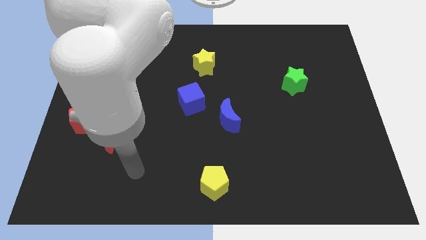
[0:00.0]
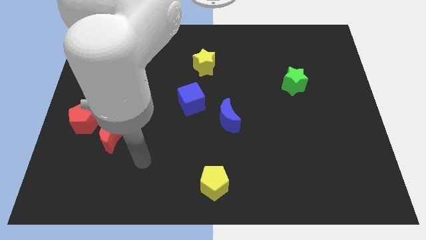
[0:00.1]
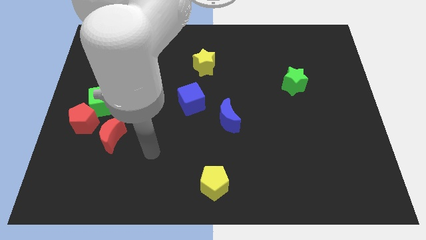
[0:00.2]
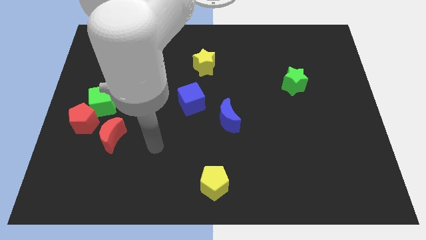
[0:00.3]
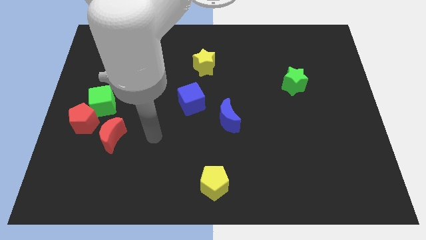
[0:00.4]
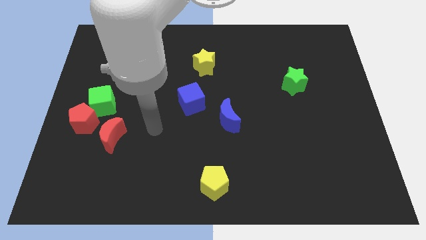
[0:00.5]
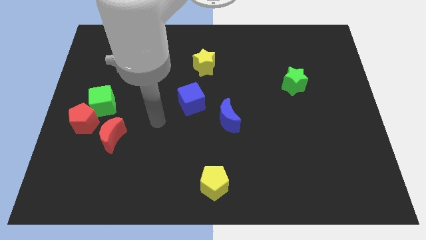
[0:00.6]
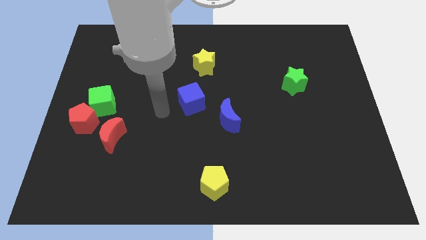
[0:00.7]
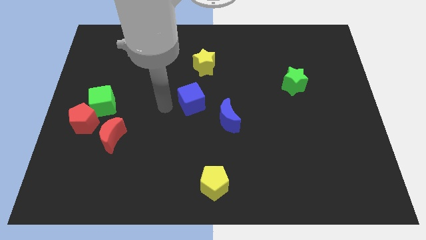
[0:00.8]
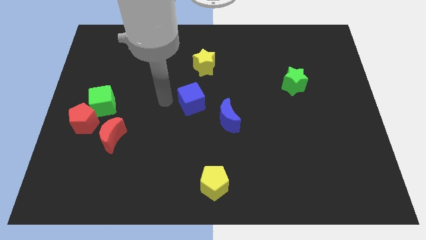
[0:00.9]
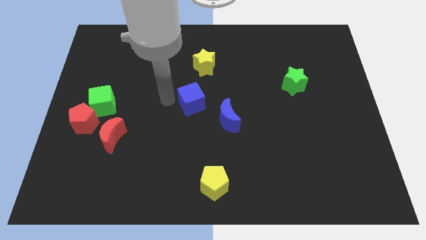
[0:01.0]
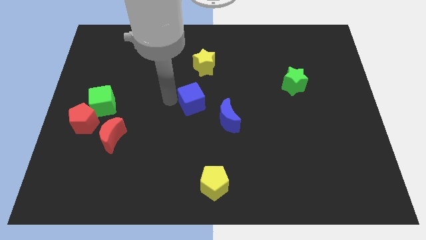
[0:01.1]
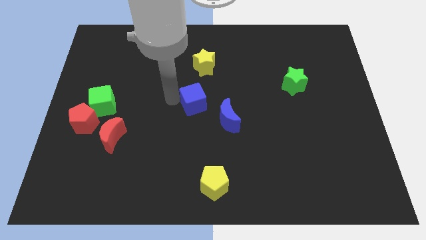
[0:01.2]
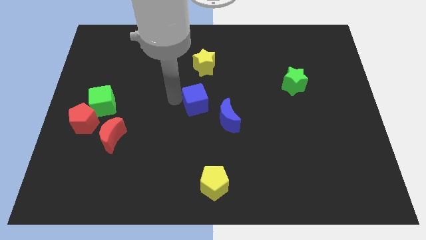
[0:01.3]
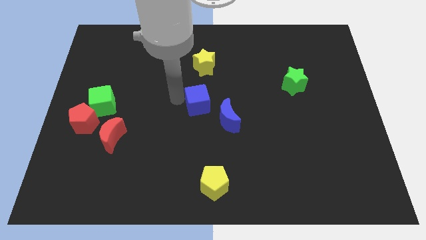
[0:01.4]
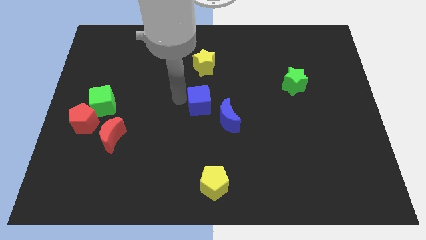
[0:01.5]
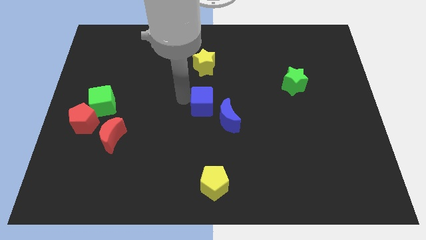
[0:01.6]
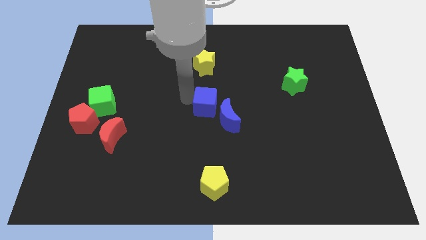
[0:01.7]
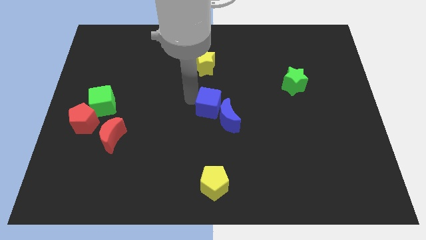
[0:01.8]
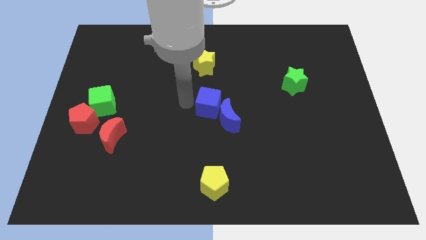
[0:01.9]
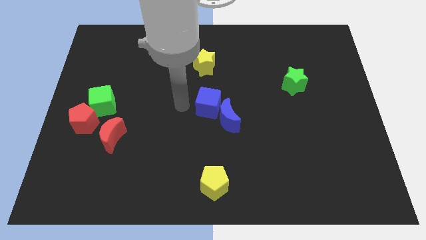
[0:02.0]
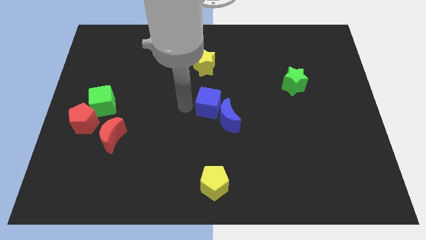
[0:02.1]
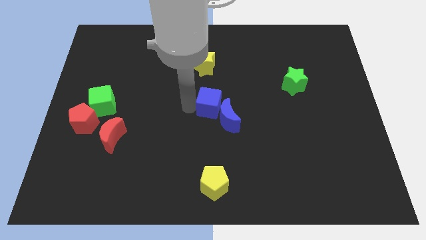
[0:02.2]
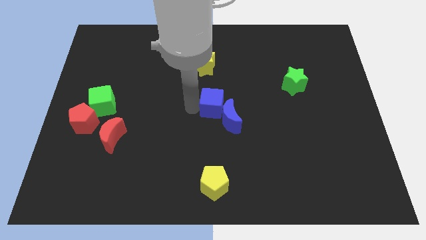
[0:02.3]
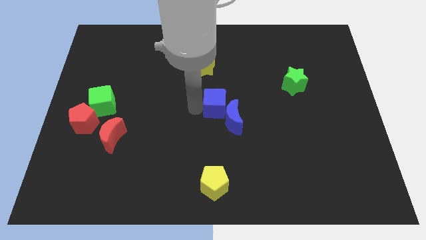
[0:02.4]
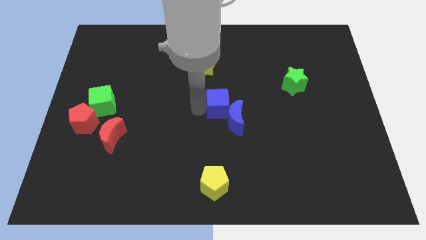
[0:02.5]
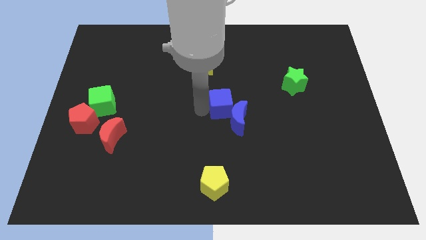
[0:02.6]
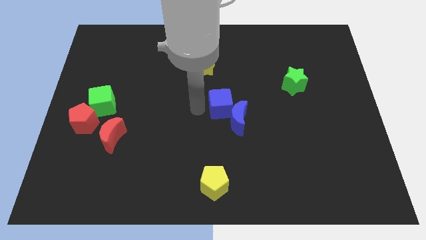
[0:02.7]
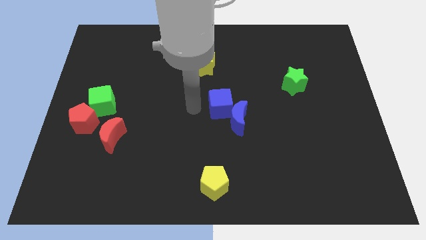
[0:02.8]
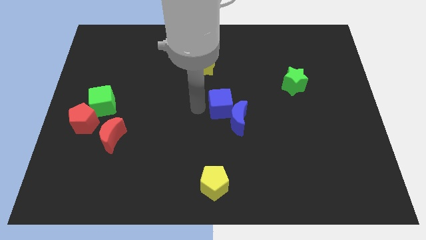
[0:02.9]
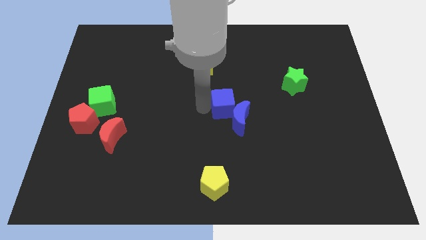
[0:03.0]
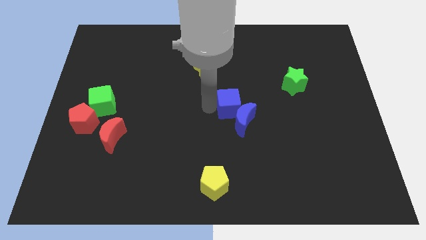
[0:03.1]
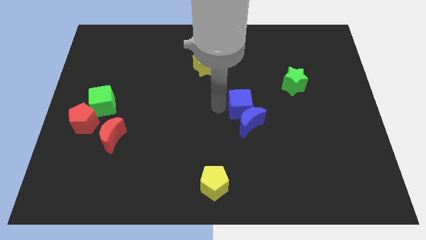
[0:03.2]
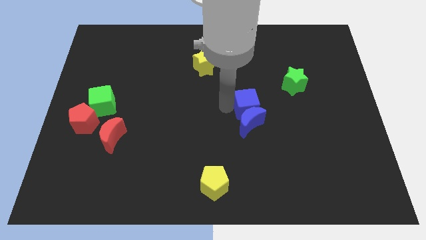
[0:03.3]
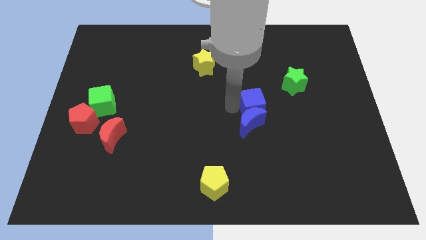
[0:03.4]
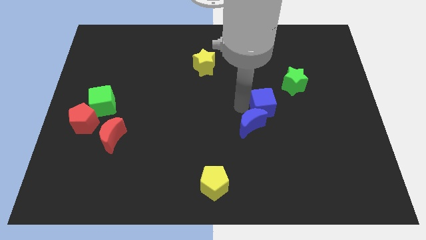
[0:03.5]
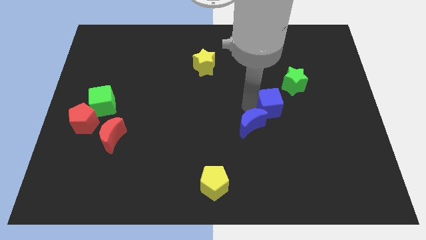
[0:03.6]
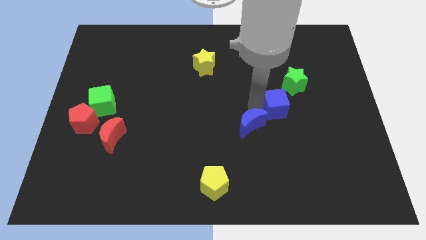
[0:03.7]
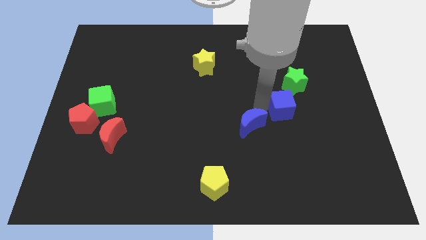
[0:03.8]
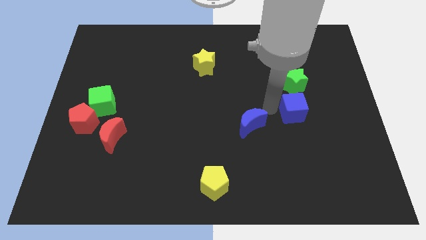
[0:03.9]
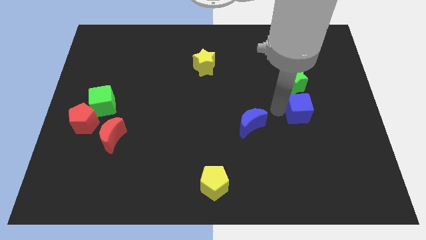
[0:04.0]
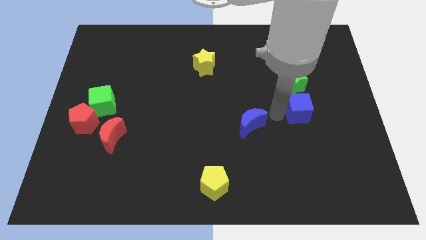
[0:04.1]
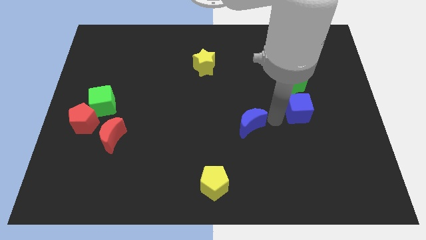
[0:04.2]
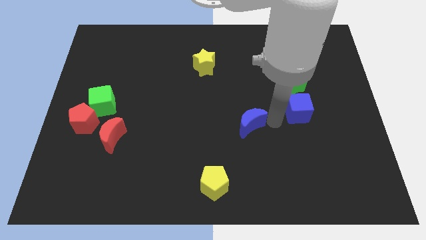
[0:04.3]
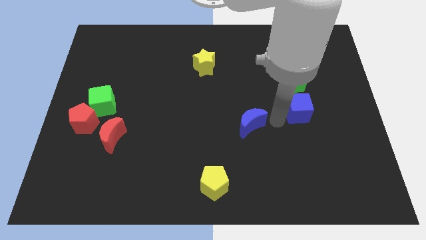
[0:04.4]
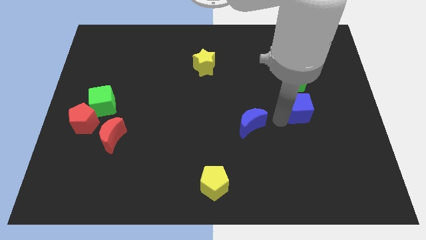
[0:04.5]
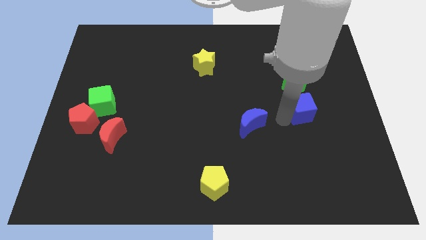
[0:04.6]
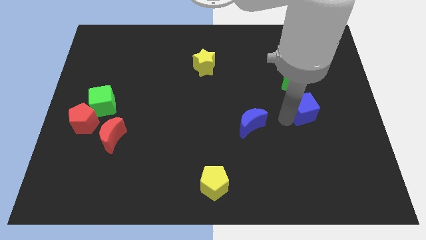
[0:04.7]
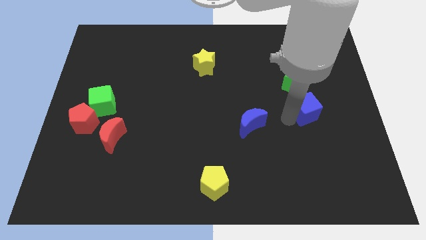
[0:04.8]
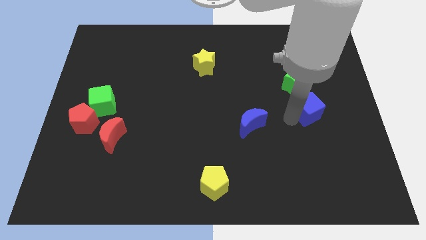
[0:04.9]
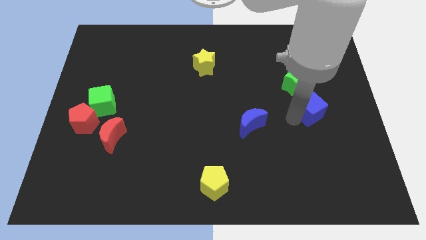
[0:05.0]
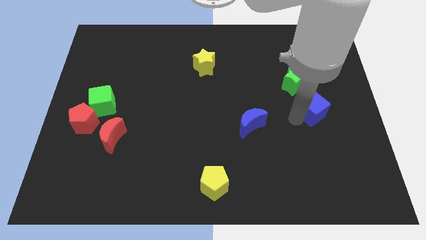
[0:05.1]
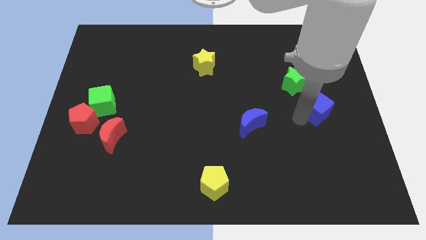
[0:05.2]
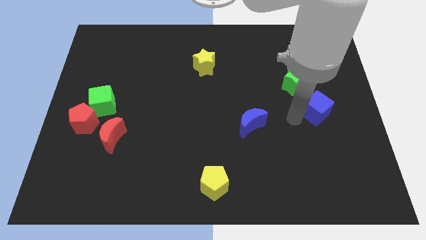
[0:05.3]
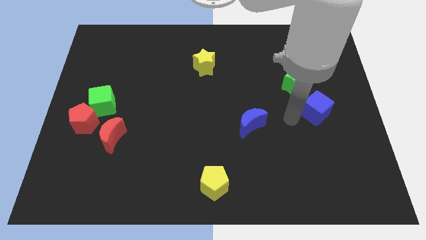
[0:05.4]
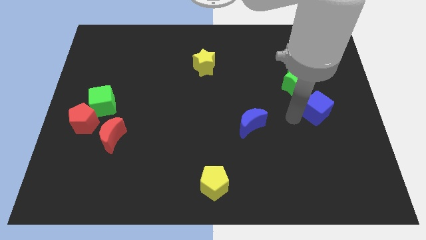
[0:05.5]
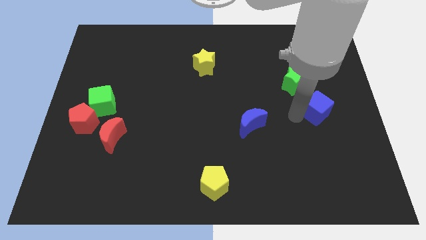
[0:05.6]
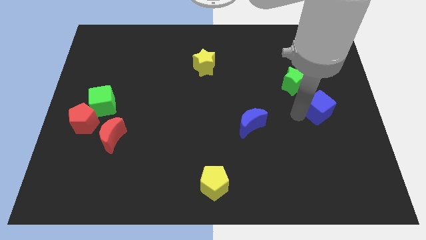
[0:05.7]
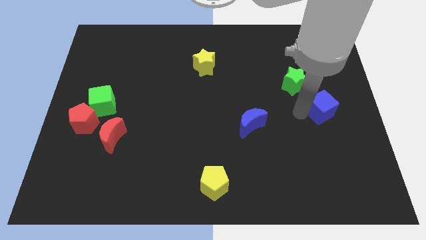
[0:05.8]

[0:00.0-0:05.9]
push the blue cube to the center right

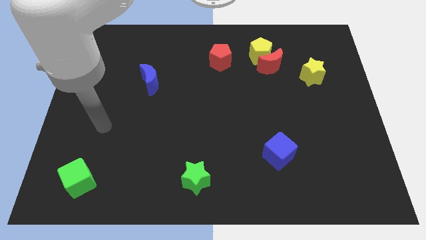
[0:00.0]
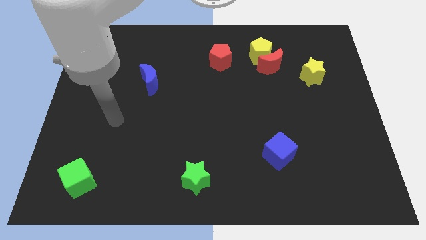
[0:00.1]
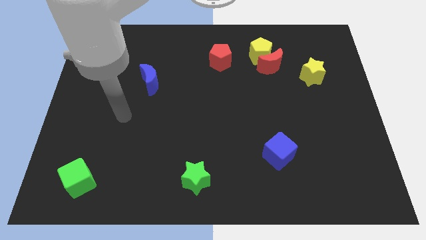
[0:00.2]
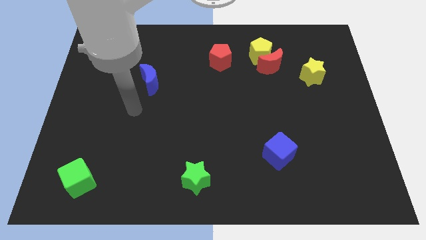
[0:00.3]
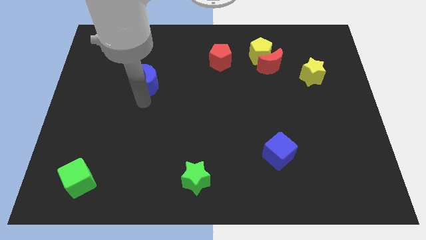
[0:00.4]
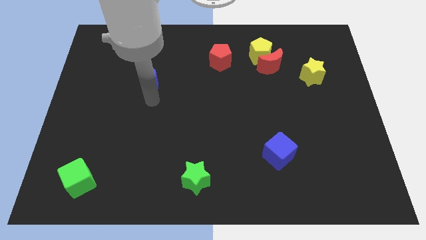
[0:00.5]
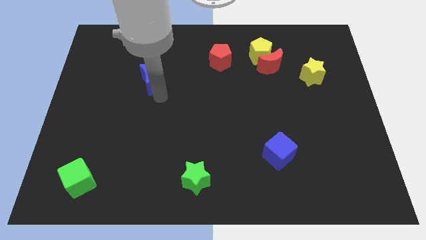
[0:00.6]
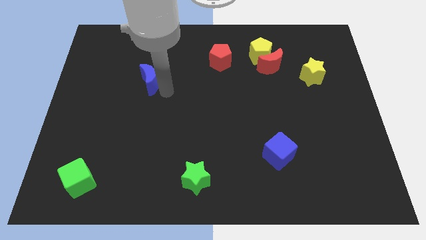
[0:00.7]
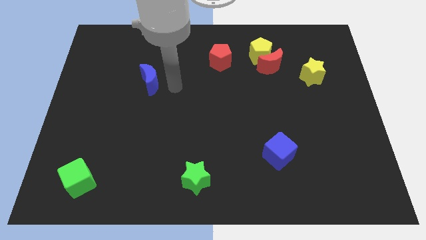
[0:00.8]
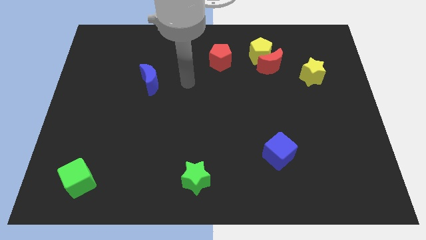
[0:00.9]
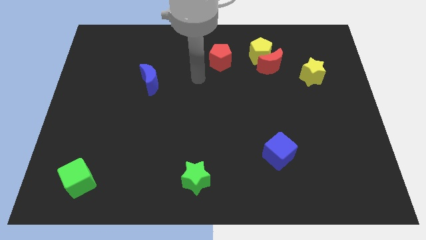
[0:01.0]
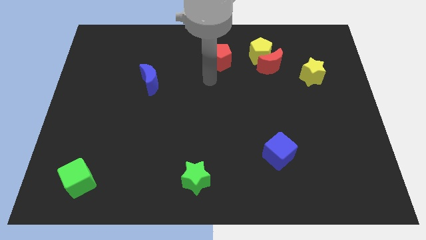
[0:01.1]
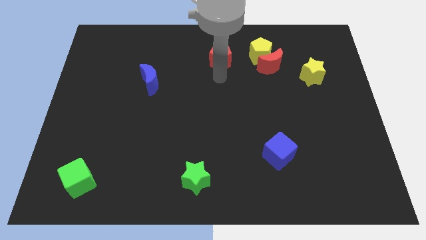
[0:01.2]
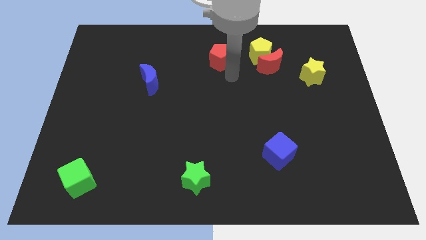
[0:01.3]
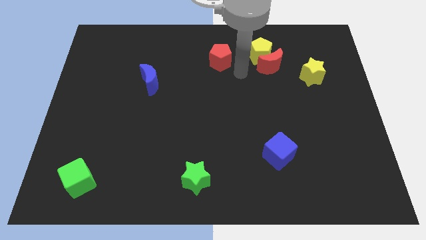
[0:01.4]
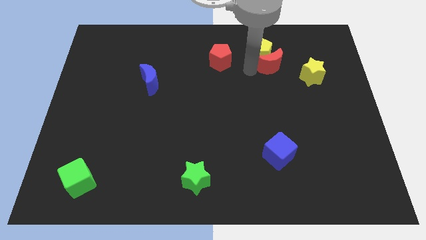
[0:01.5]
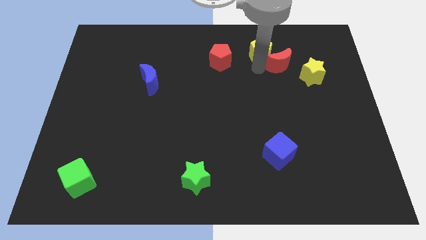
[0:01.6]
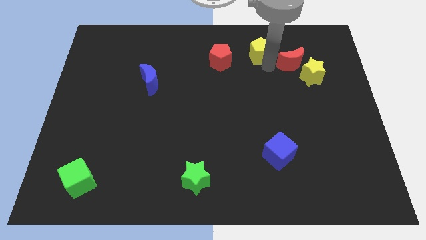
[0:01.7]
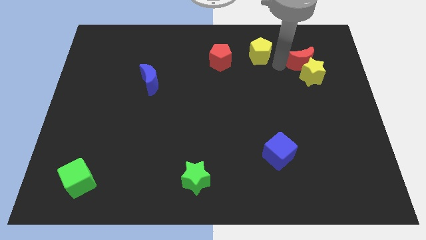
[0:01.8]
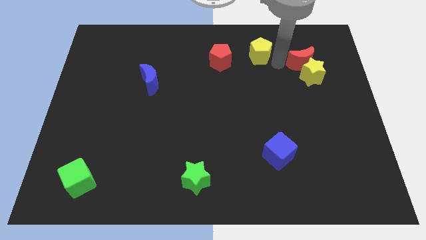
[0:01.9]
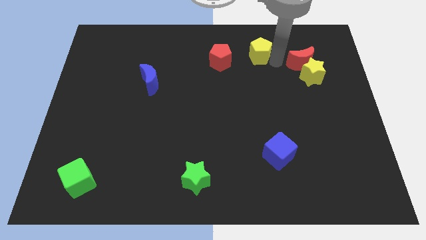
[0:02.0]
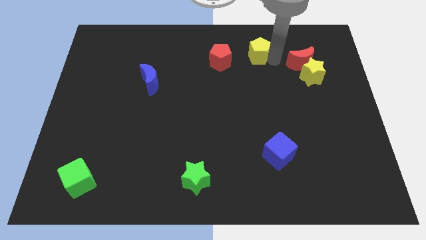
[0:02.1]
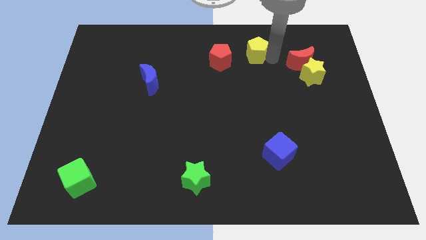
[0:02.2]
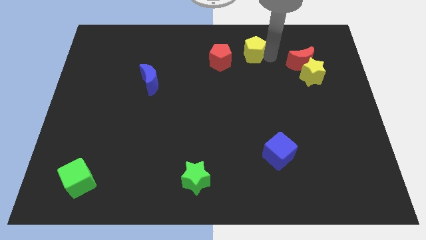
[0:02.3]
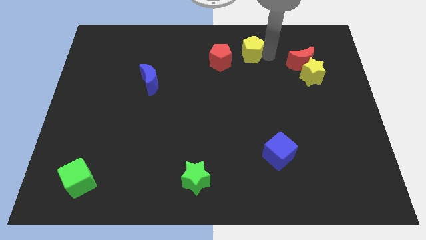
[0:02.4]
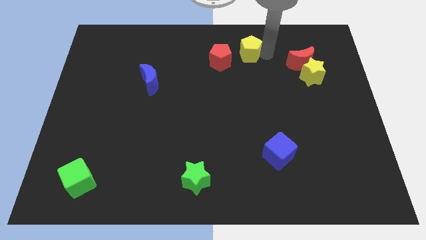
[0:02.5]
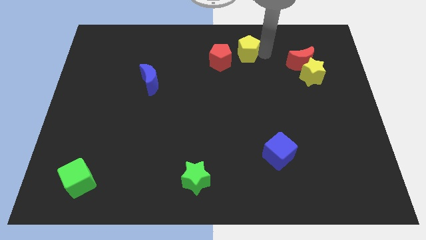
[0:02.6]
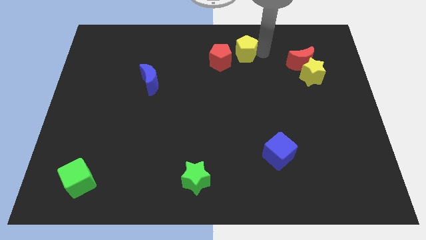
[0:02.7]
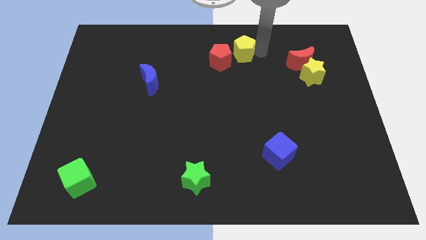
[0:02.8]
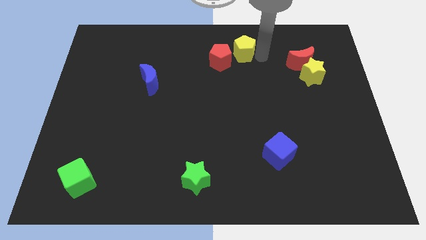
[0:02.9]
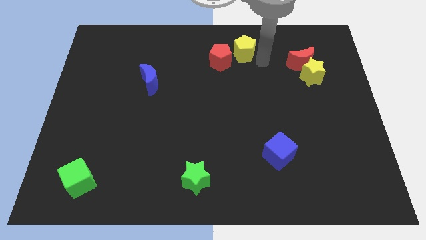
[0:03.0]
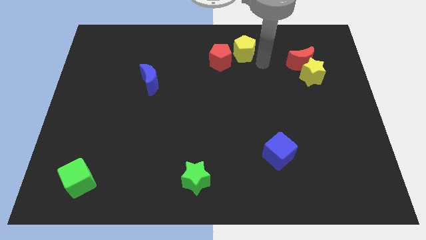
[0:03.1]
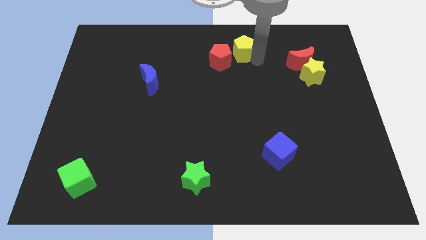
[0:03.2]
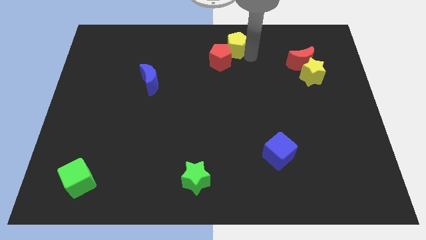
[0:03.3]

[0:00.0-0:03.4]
put the yellow pentagon to the towards your base
